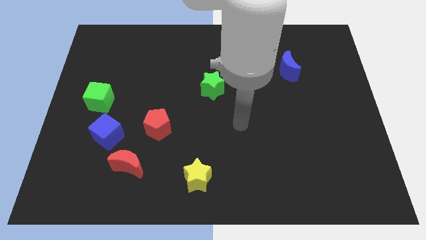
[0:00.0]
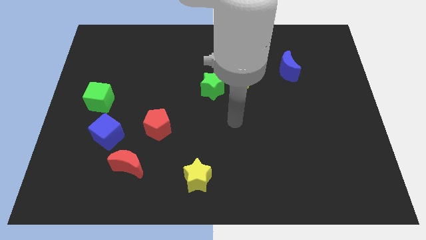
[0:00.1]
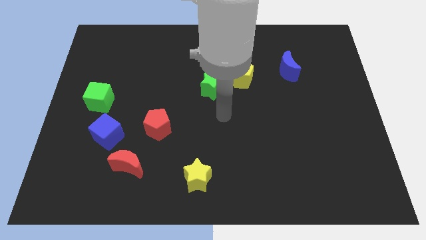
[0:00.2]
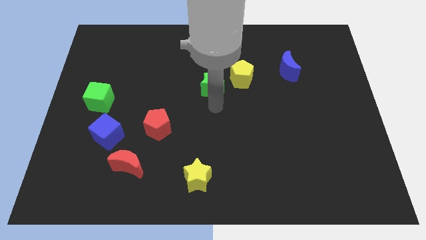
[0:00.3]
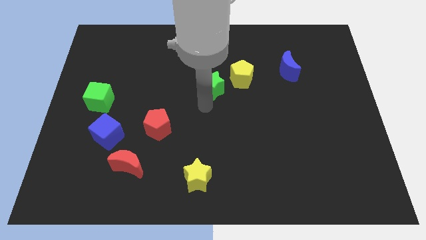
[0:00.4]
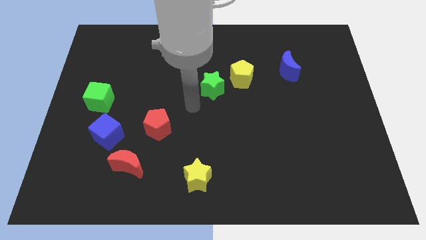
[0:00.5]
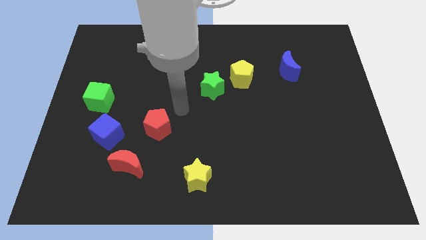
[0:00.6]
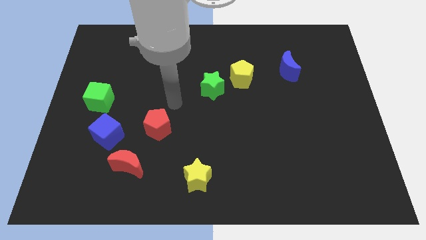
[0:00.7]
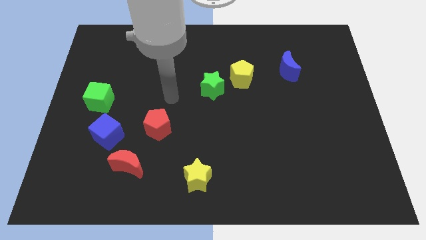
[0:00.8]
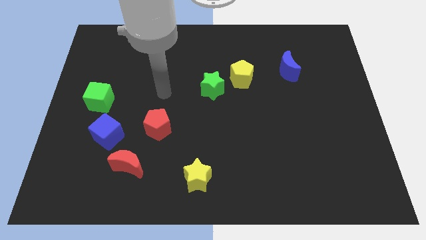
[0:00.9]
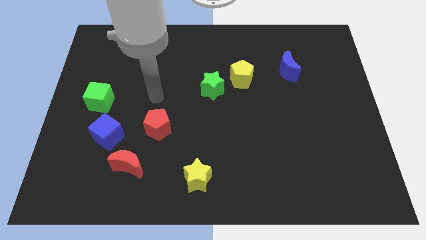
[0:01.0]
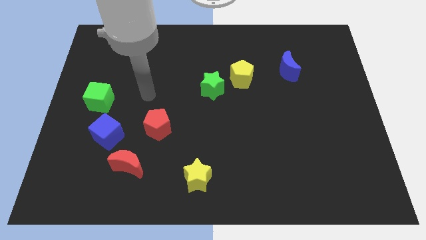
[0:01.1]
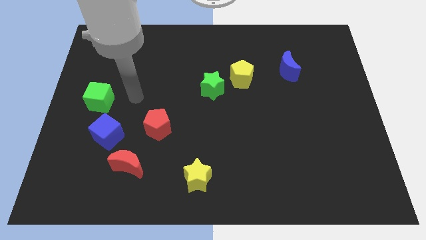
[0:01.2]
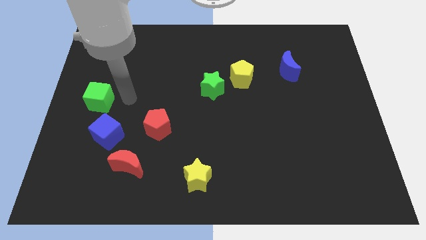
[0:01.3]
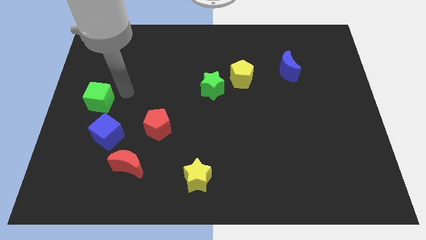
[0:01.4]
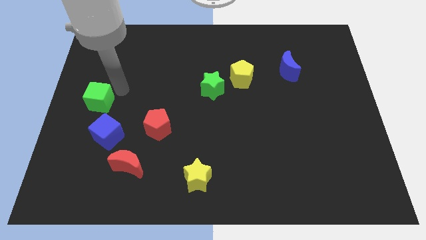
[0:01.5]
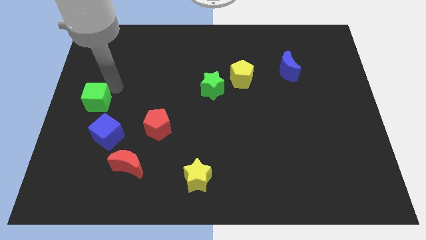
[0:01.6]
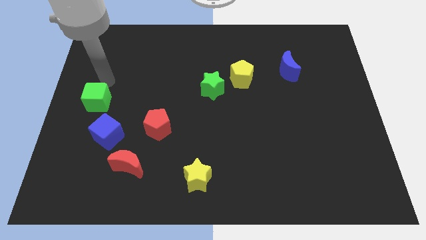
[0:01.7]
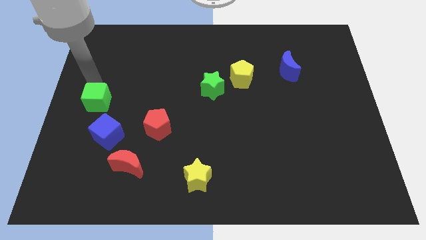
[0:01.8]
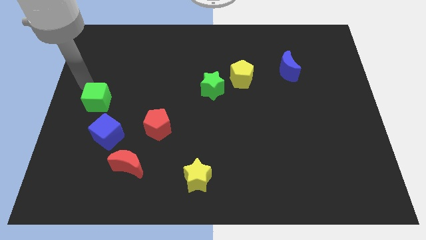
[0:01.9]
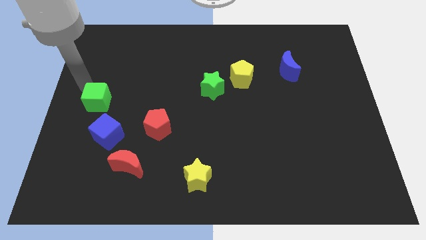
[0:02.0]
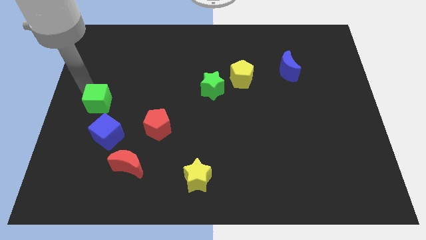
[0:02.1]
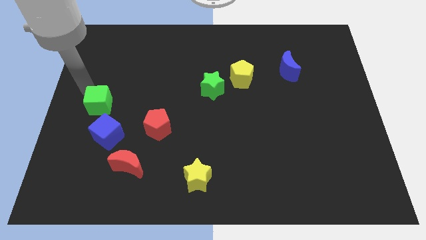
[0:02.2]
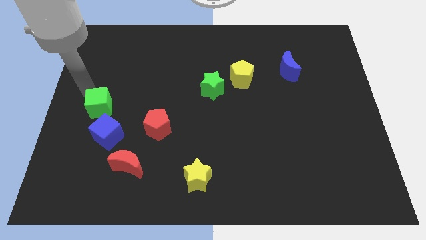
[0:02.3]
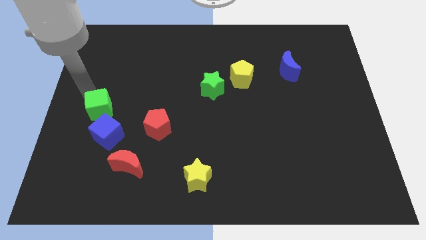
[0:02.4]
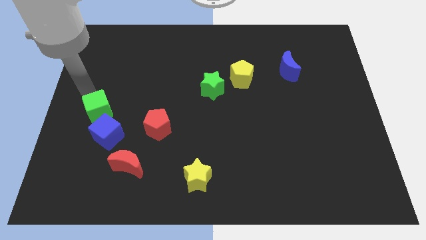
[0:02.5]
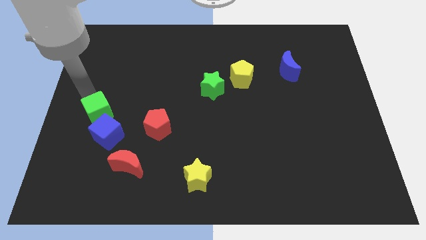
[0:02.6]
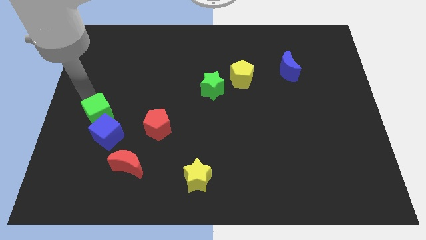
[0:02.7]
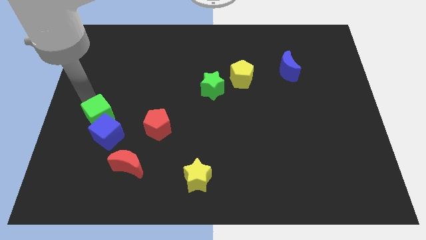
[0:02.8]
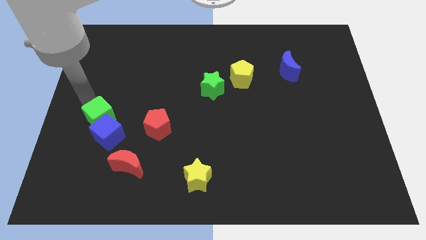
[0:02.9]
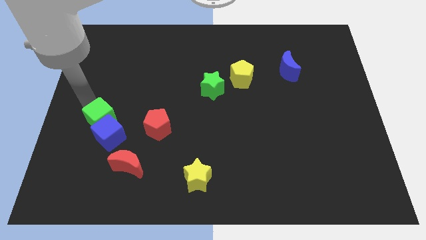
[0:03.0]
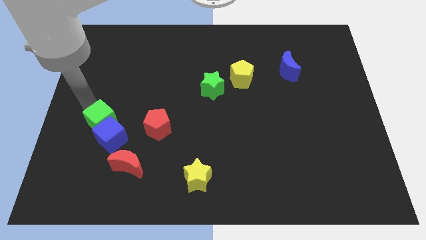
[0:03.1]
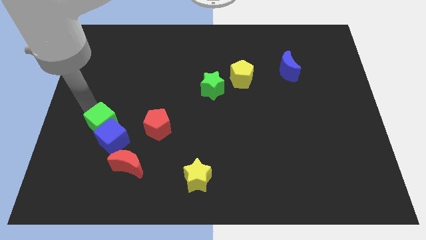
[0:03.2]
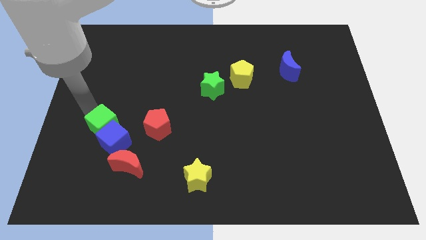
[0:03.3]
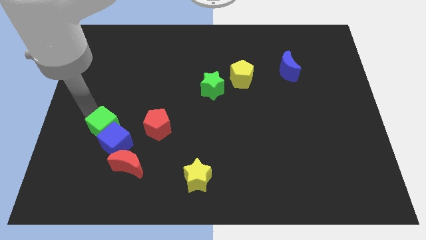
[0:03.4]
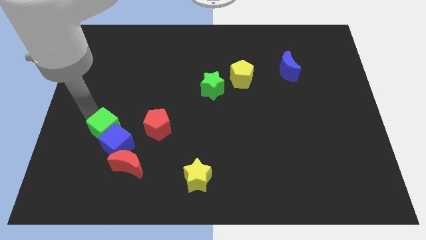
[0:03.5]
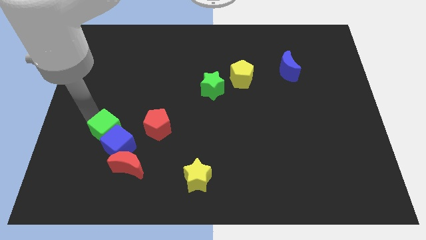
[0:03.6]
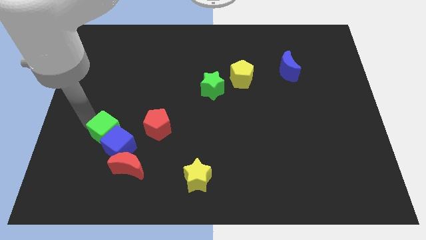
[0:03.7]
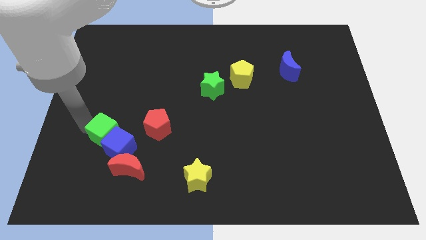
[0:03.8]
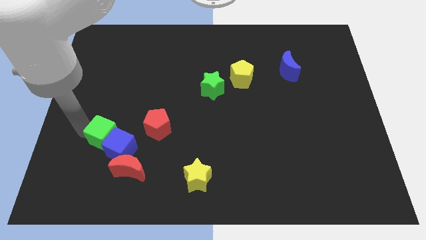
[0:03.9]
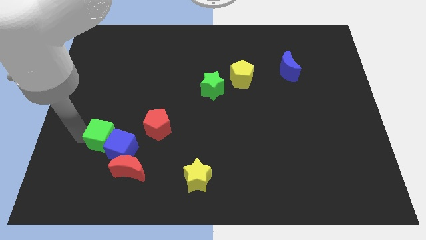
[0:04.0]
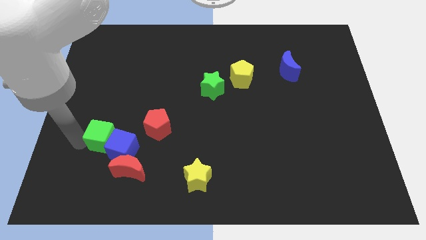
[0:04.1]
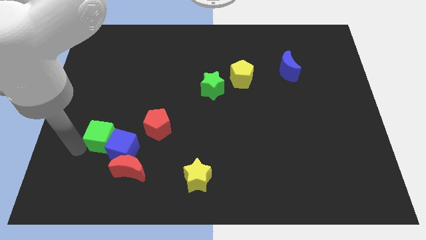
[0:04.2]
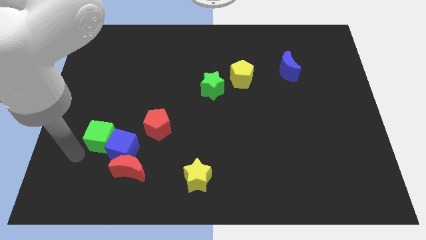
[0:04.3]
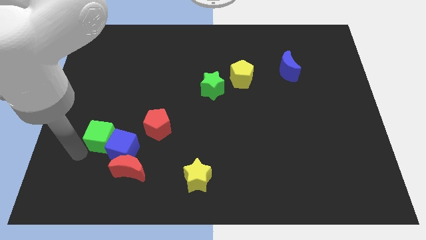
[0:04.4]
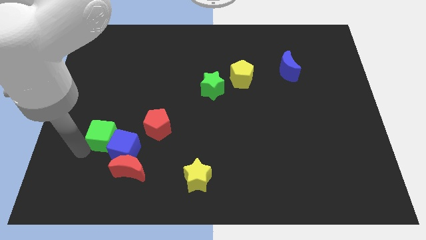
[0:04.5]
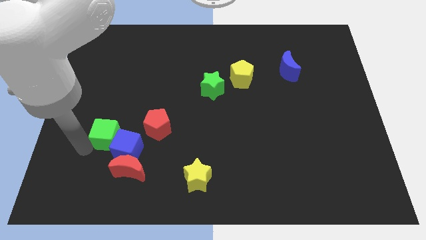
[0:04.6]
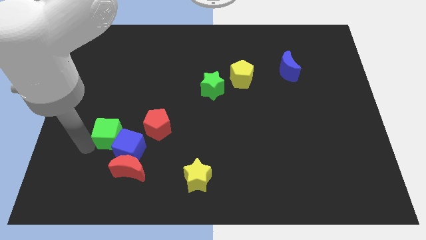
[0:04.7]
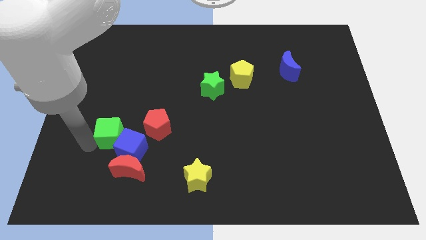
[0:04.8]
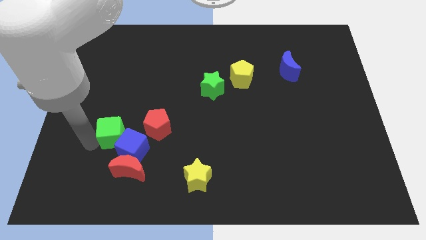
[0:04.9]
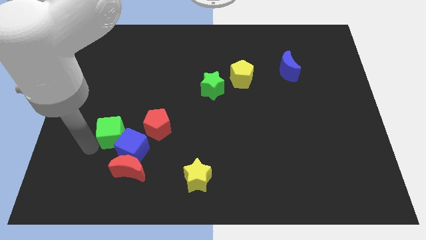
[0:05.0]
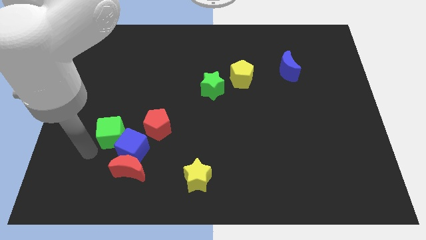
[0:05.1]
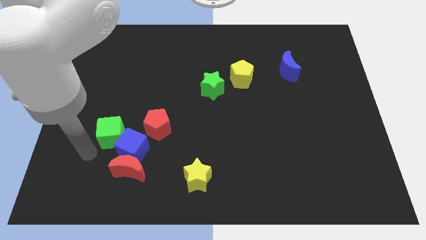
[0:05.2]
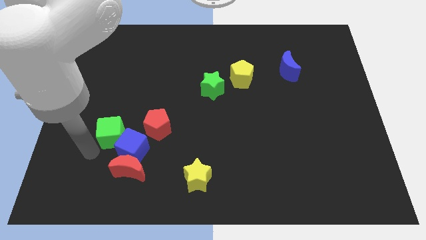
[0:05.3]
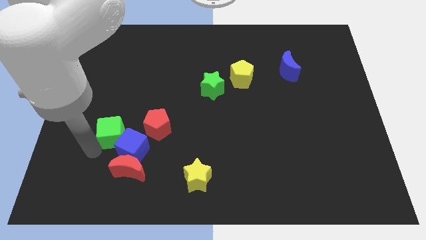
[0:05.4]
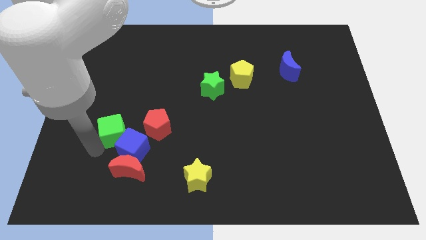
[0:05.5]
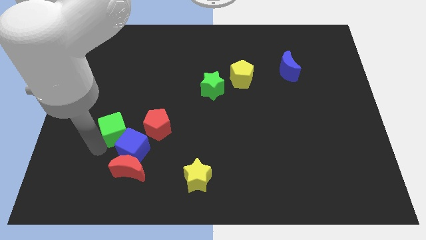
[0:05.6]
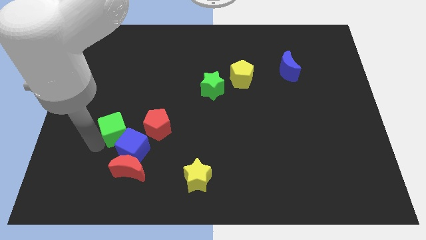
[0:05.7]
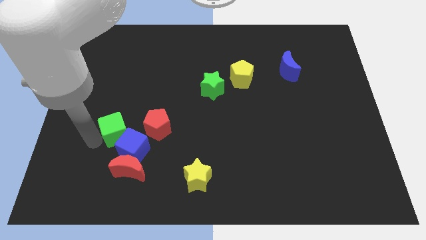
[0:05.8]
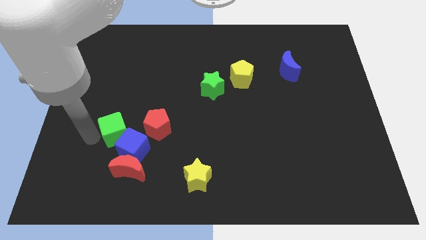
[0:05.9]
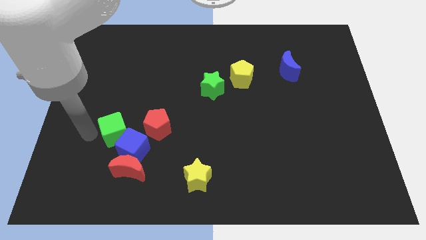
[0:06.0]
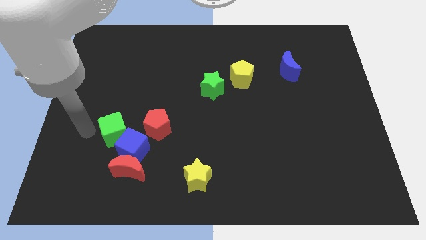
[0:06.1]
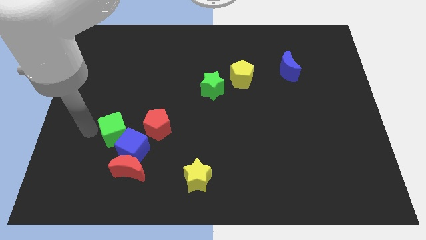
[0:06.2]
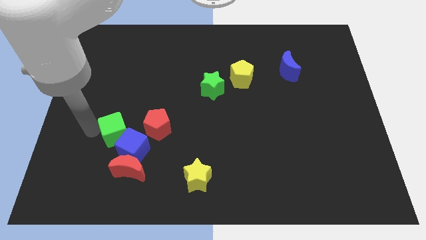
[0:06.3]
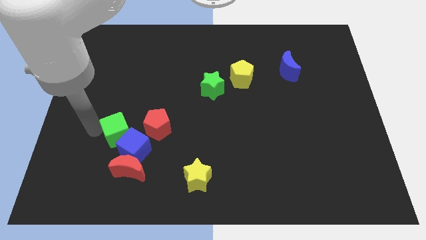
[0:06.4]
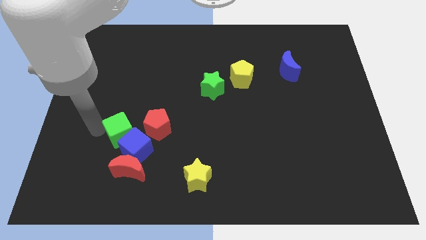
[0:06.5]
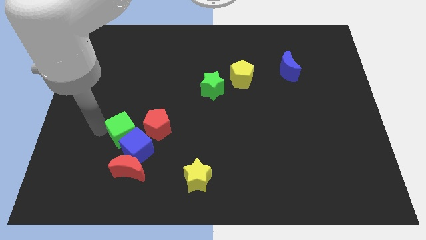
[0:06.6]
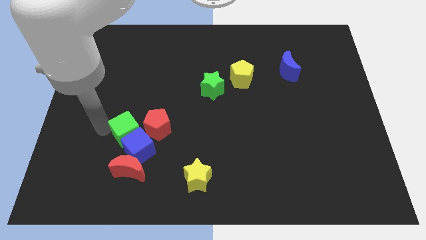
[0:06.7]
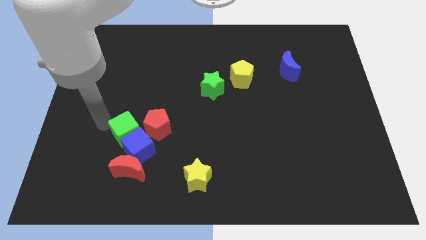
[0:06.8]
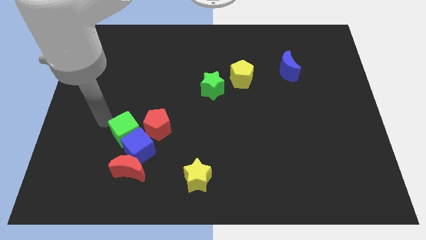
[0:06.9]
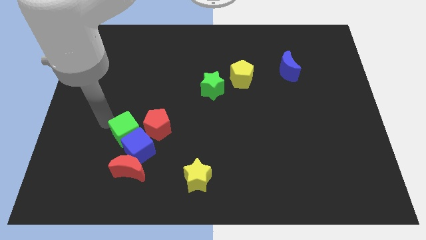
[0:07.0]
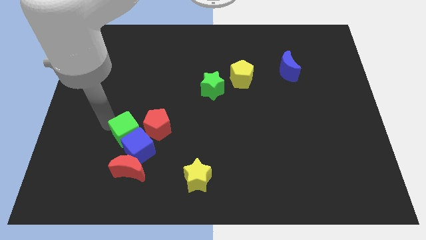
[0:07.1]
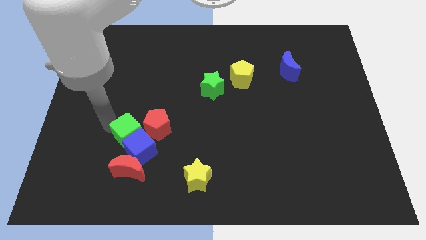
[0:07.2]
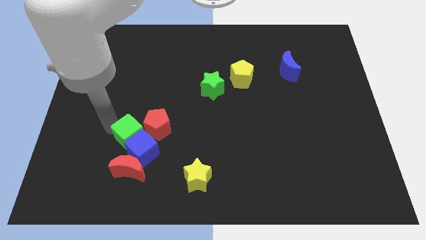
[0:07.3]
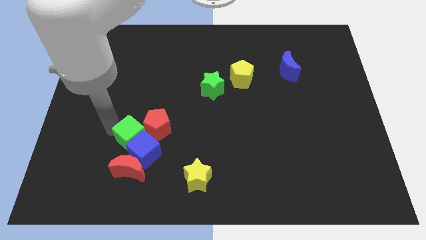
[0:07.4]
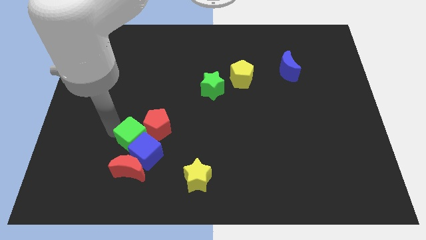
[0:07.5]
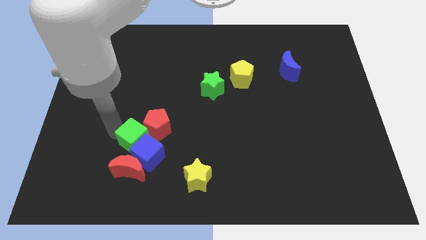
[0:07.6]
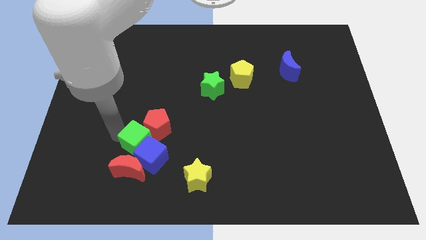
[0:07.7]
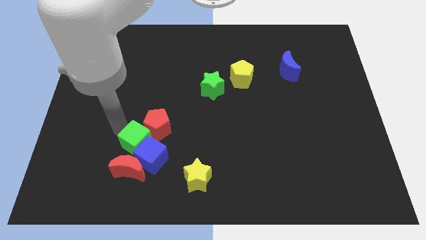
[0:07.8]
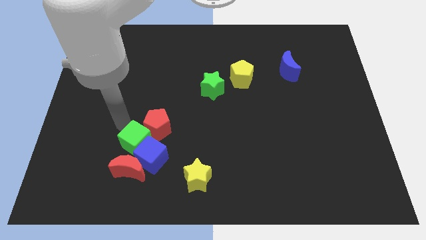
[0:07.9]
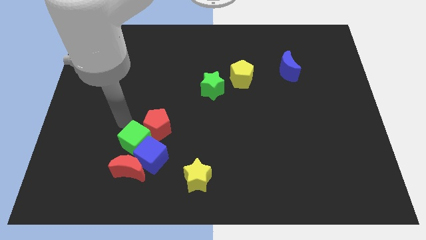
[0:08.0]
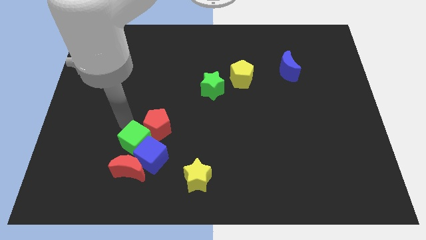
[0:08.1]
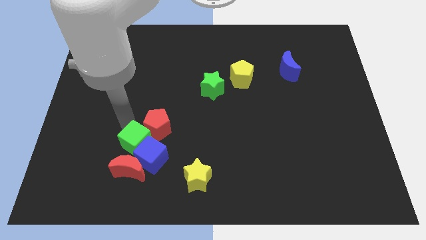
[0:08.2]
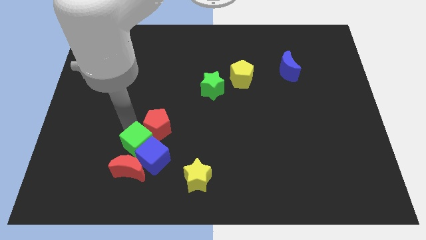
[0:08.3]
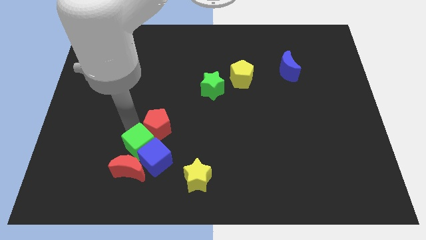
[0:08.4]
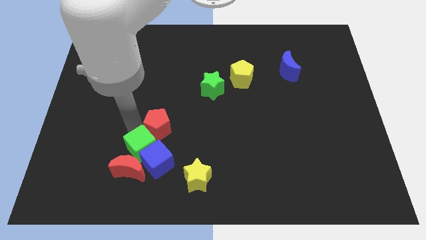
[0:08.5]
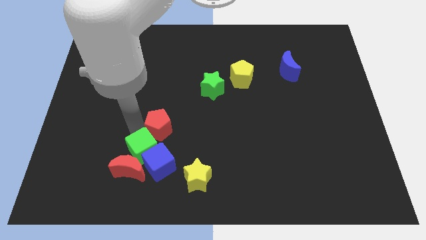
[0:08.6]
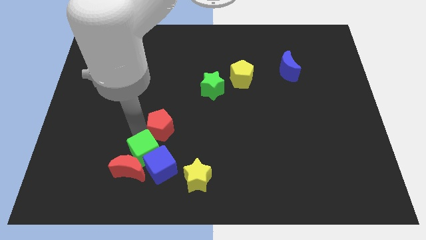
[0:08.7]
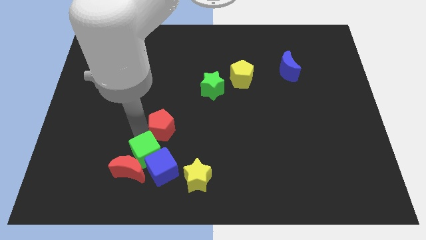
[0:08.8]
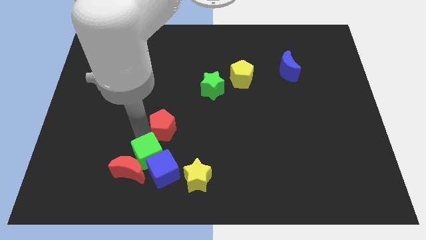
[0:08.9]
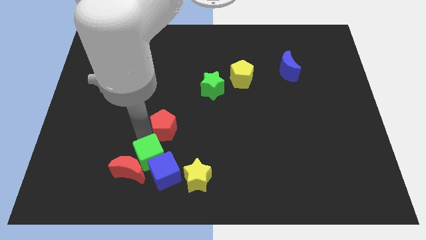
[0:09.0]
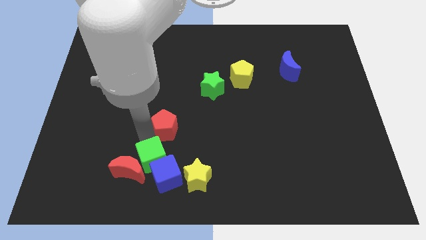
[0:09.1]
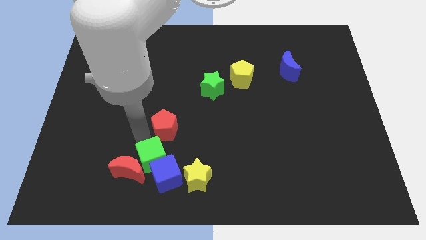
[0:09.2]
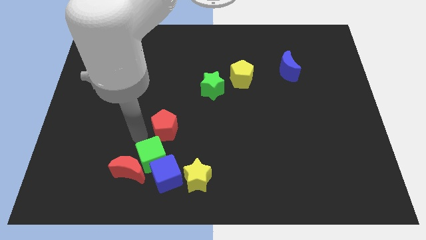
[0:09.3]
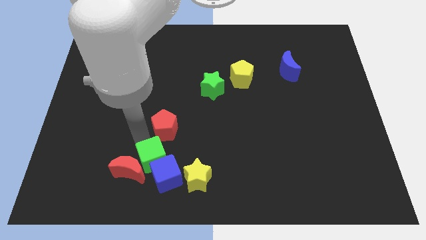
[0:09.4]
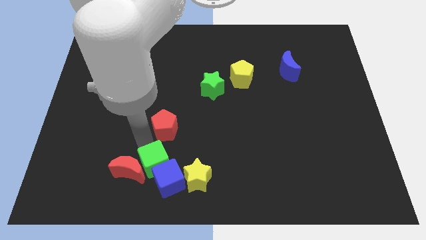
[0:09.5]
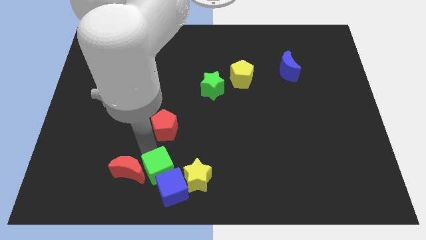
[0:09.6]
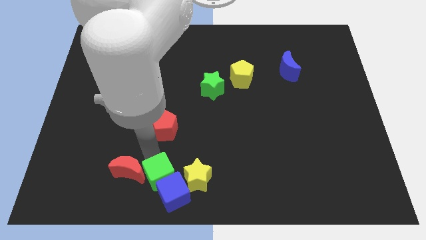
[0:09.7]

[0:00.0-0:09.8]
slide the green cube to the bottom
